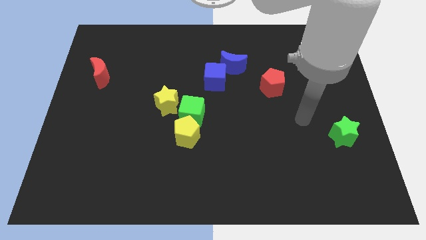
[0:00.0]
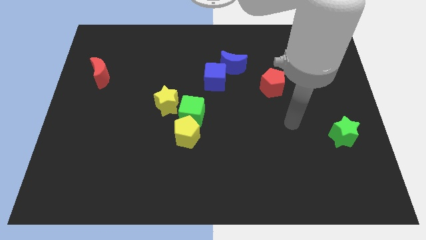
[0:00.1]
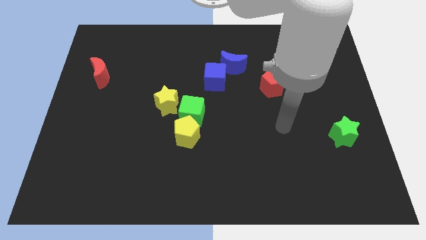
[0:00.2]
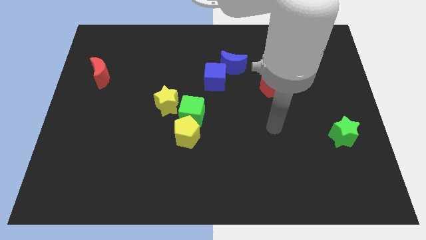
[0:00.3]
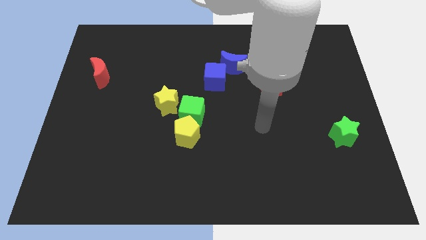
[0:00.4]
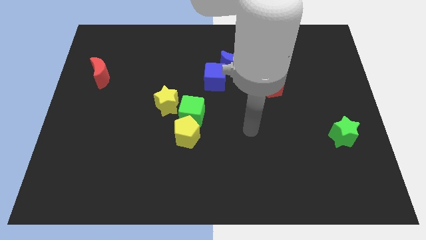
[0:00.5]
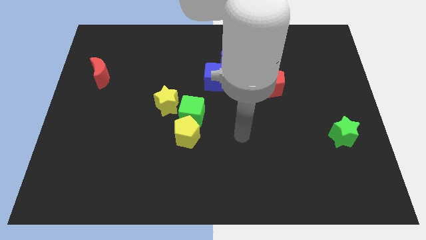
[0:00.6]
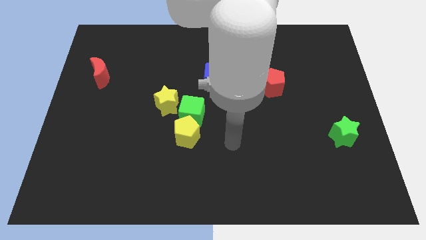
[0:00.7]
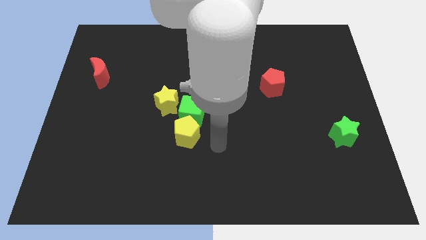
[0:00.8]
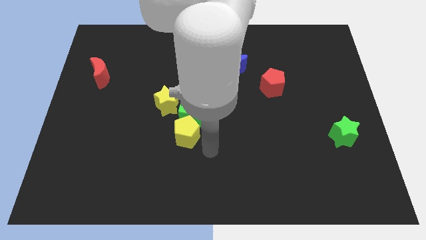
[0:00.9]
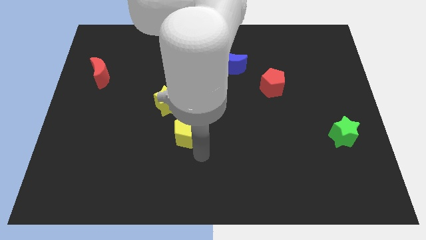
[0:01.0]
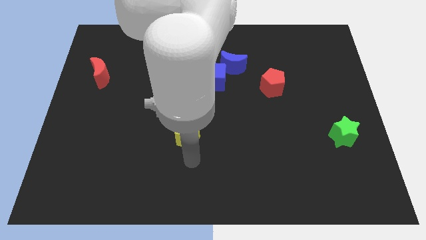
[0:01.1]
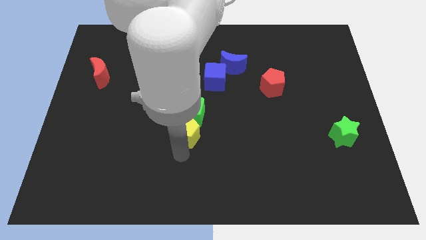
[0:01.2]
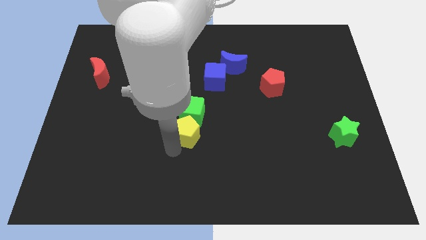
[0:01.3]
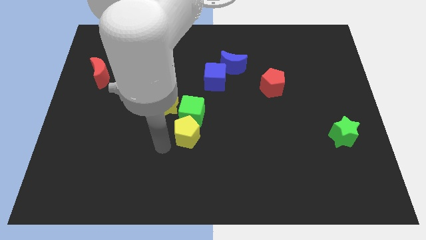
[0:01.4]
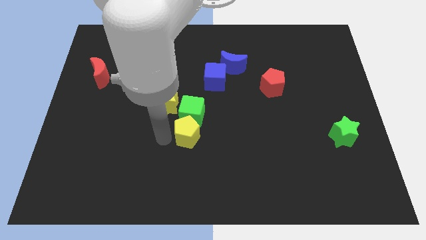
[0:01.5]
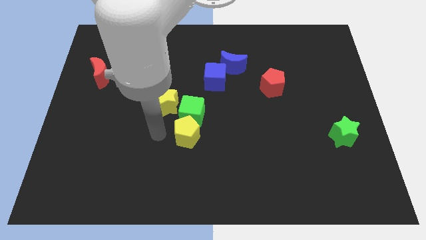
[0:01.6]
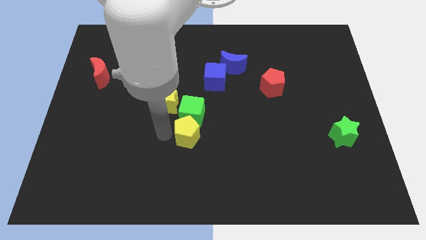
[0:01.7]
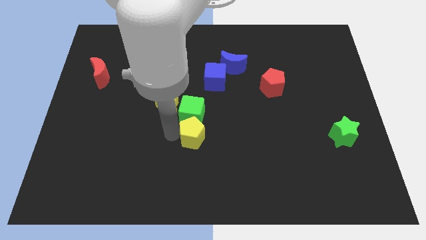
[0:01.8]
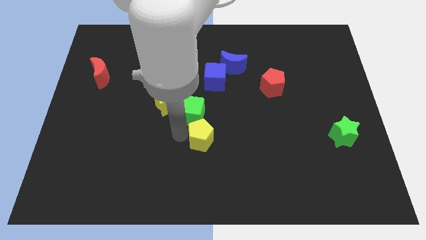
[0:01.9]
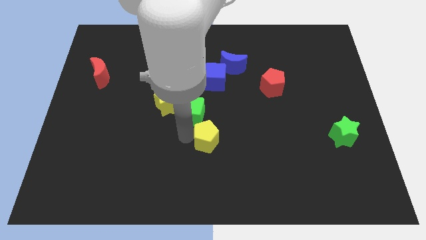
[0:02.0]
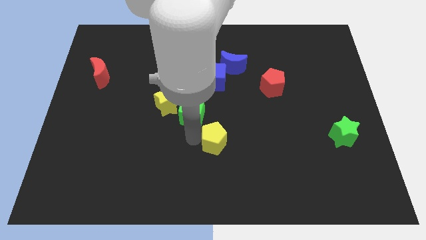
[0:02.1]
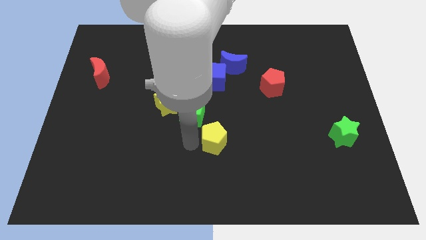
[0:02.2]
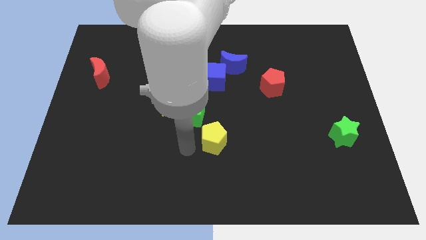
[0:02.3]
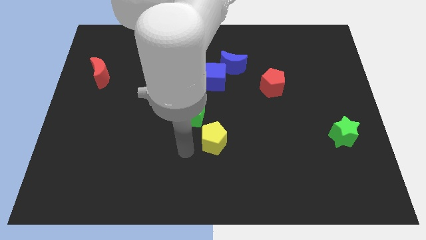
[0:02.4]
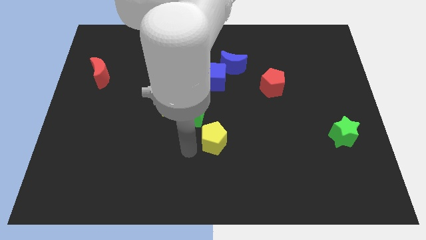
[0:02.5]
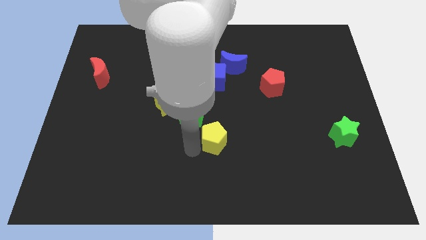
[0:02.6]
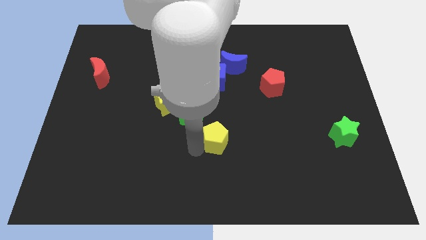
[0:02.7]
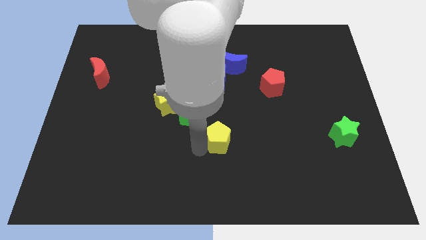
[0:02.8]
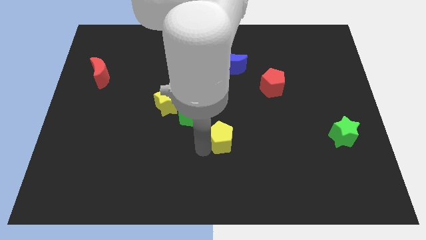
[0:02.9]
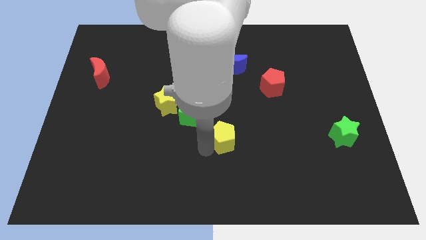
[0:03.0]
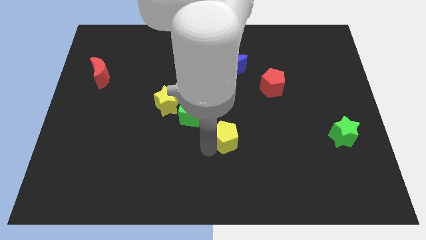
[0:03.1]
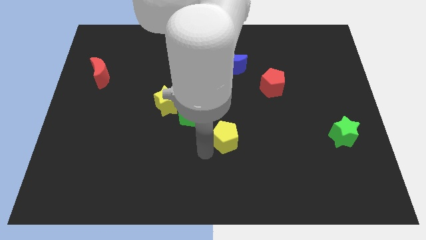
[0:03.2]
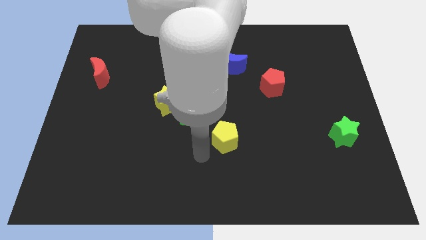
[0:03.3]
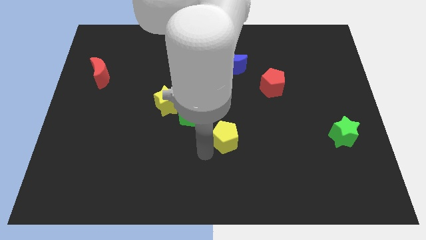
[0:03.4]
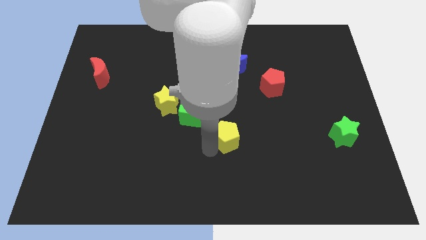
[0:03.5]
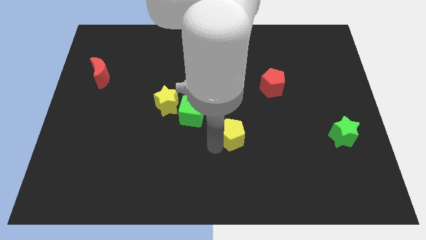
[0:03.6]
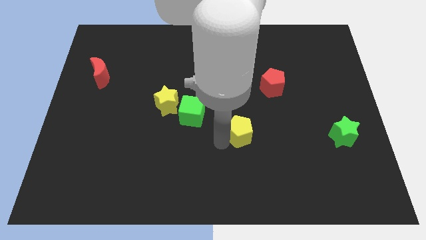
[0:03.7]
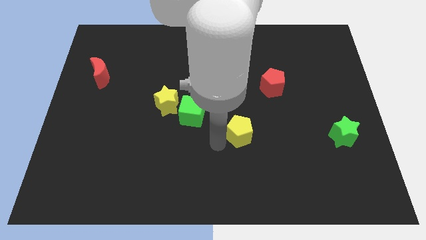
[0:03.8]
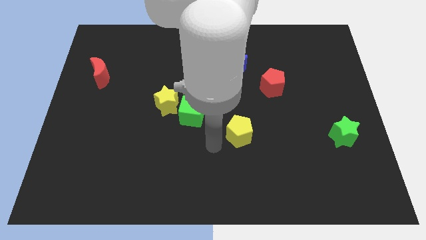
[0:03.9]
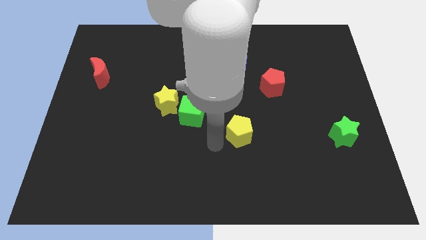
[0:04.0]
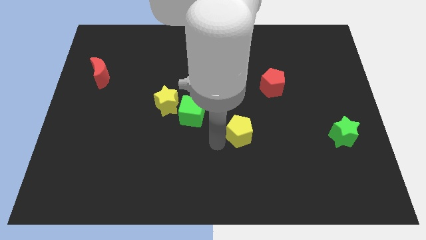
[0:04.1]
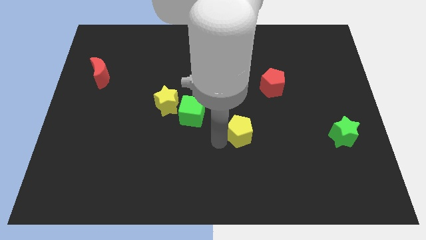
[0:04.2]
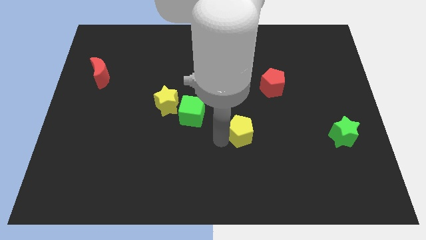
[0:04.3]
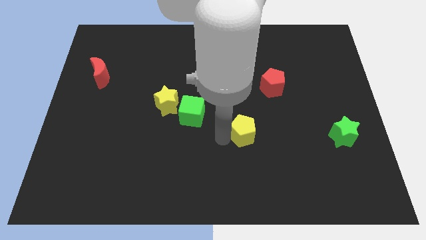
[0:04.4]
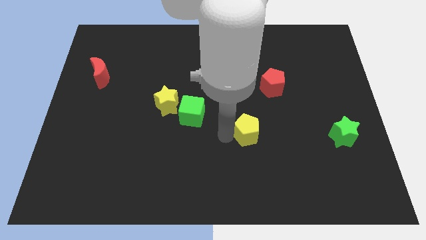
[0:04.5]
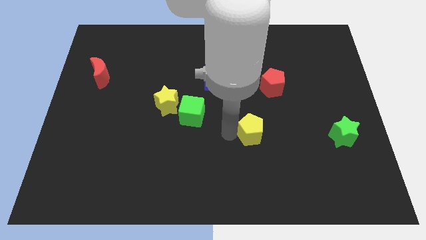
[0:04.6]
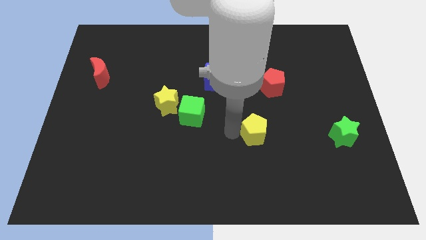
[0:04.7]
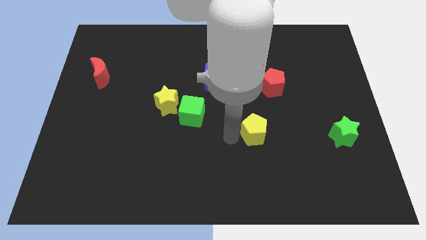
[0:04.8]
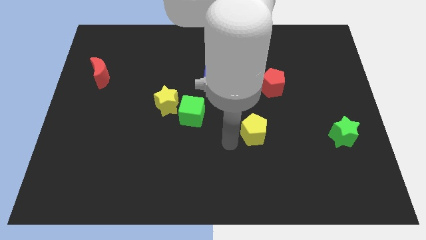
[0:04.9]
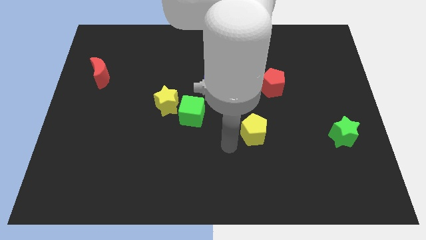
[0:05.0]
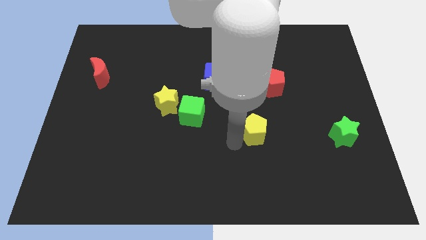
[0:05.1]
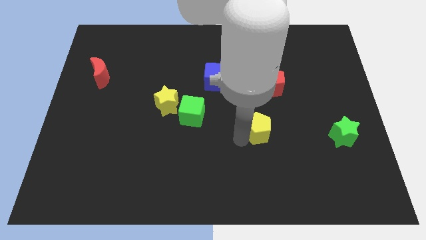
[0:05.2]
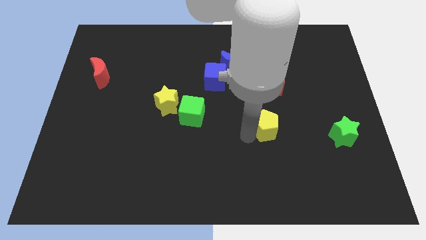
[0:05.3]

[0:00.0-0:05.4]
slide the yellow pentagon below the red pentagon

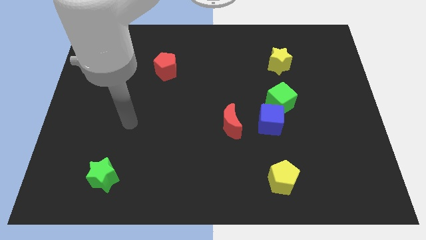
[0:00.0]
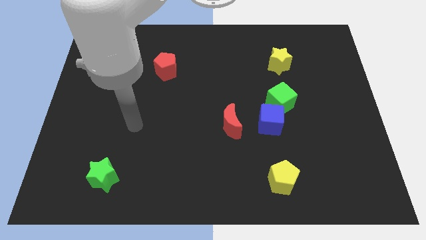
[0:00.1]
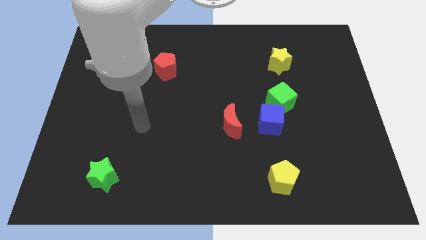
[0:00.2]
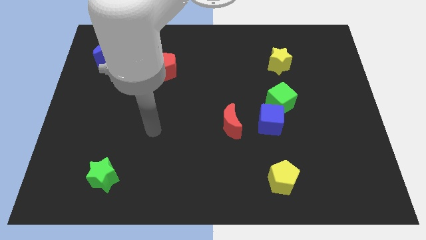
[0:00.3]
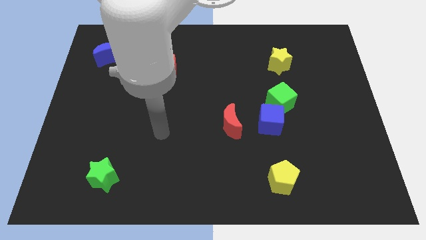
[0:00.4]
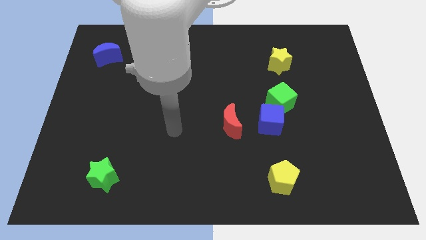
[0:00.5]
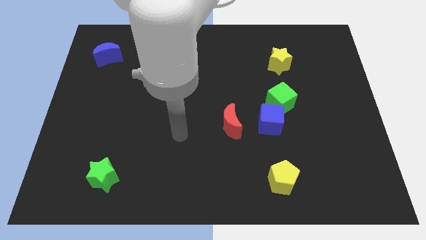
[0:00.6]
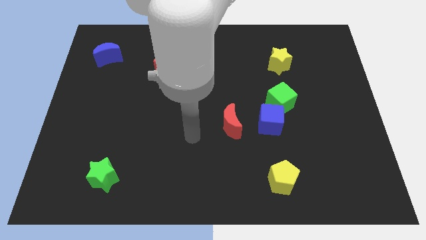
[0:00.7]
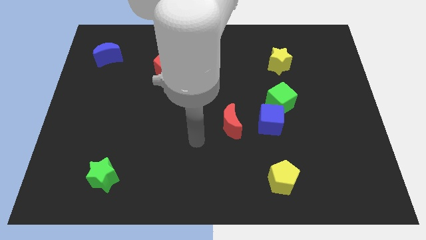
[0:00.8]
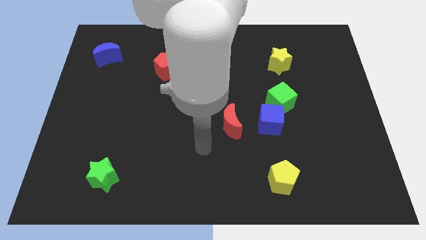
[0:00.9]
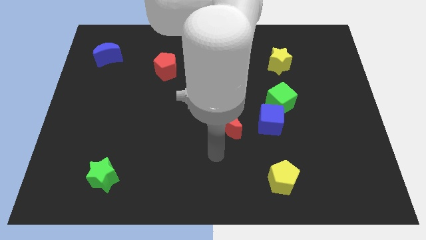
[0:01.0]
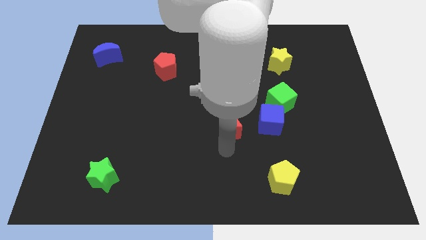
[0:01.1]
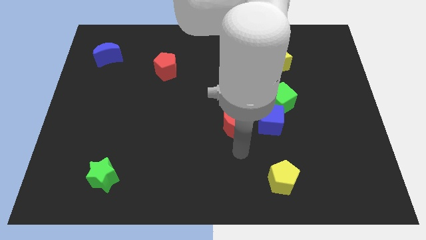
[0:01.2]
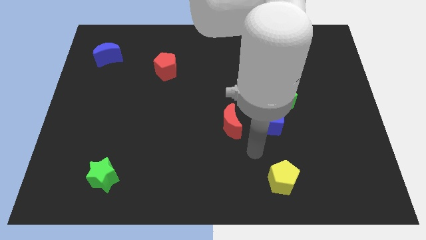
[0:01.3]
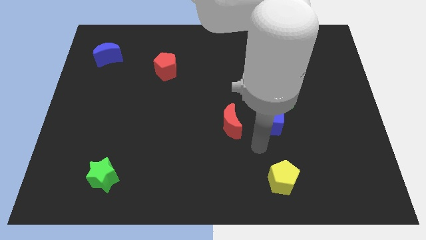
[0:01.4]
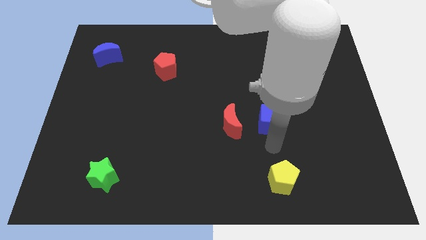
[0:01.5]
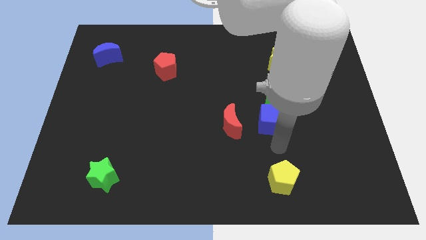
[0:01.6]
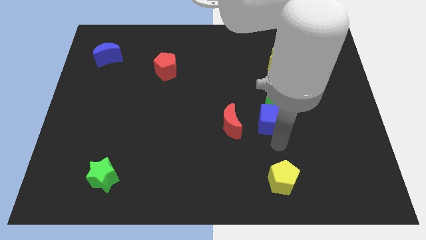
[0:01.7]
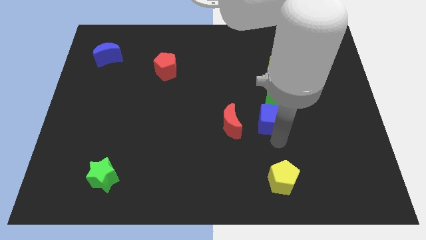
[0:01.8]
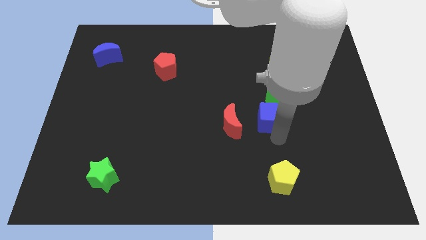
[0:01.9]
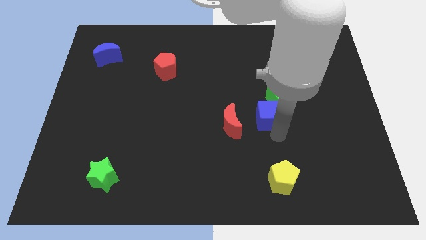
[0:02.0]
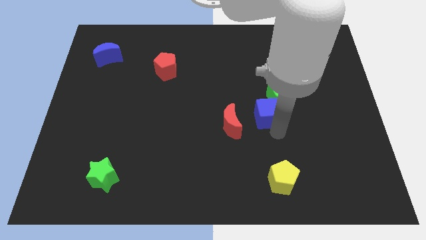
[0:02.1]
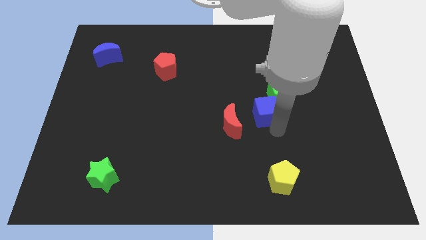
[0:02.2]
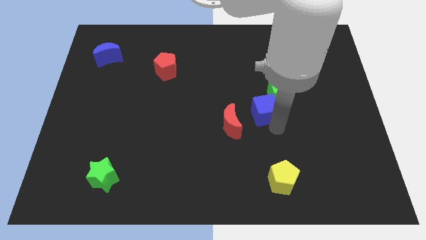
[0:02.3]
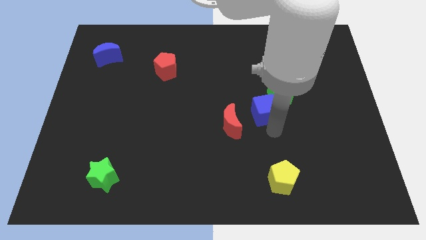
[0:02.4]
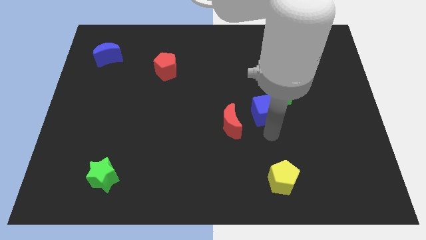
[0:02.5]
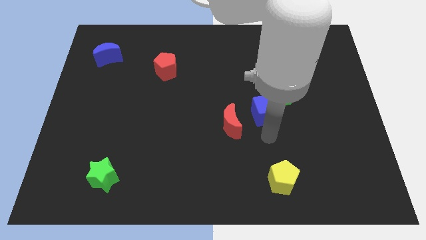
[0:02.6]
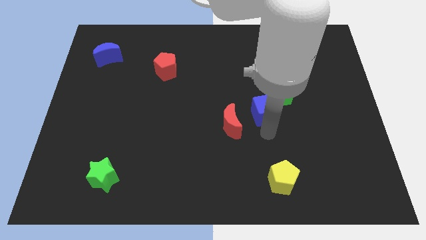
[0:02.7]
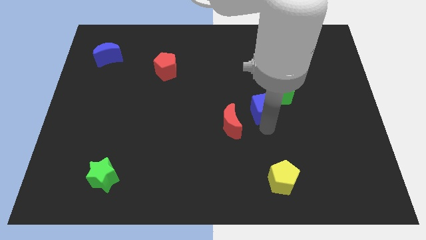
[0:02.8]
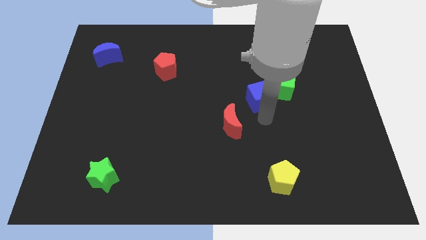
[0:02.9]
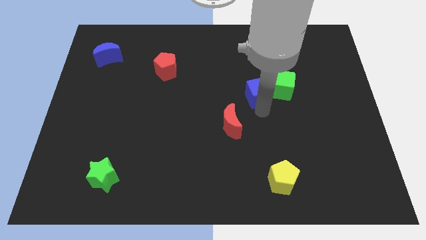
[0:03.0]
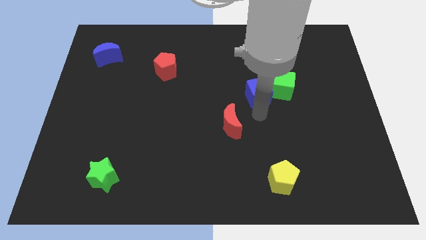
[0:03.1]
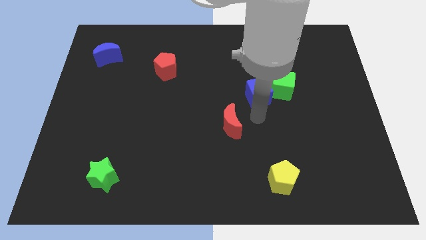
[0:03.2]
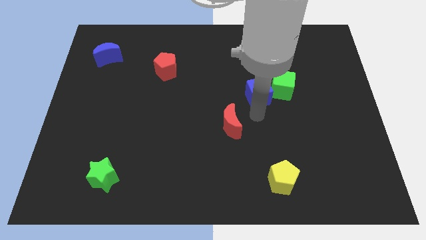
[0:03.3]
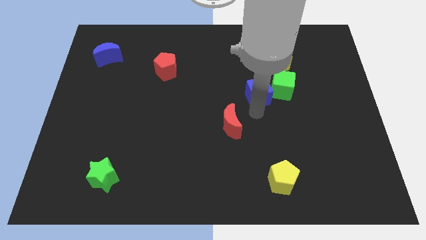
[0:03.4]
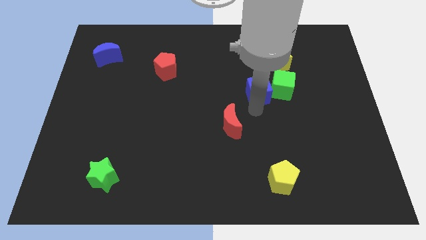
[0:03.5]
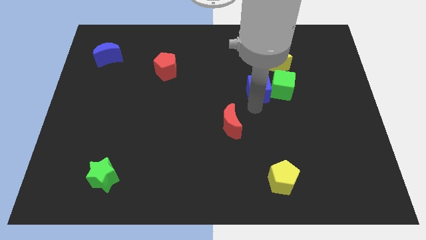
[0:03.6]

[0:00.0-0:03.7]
push the blue cube to the top left side of the green cube
